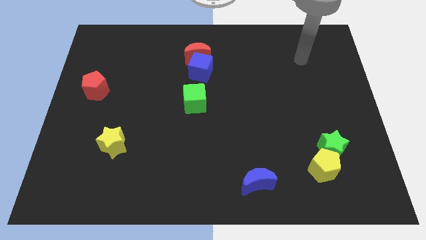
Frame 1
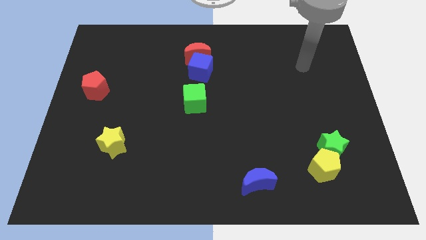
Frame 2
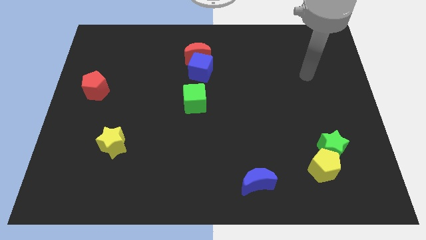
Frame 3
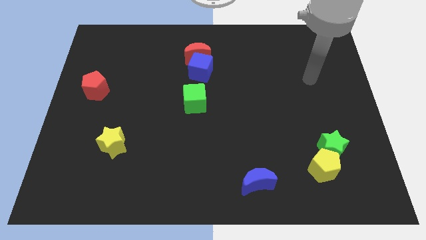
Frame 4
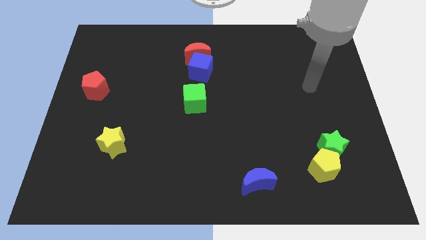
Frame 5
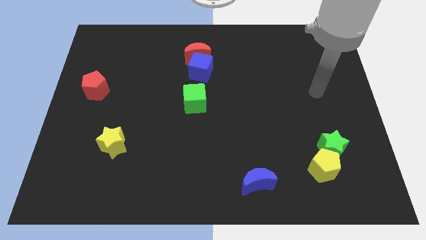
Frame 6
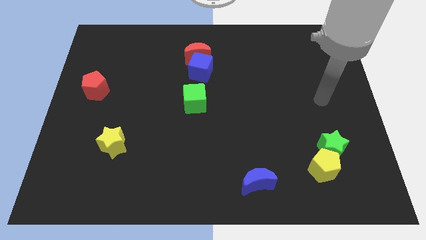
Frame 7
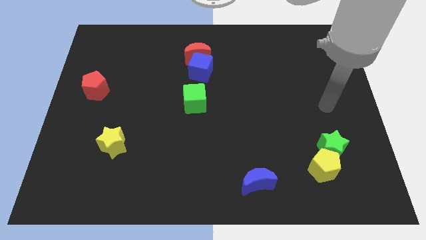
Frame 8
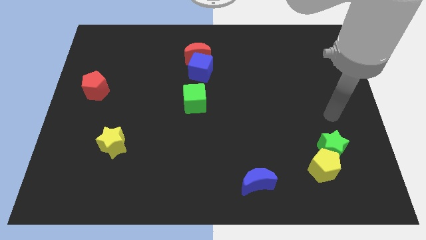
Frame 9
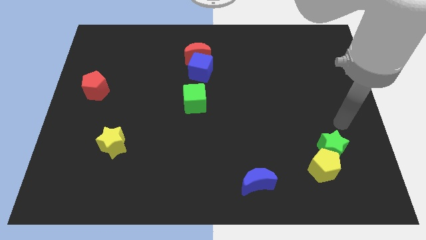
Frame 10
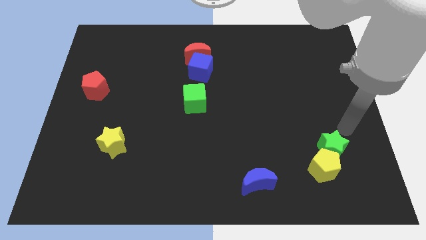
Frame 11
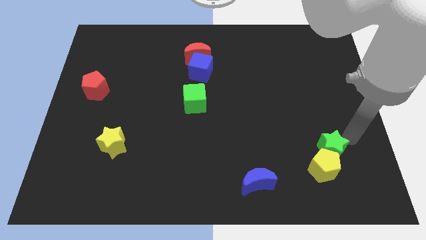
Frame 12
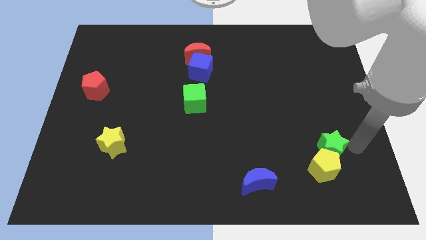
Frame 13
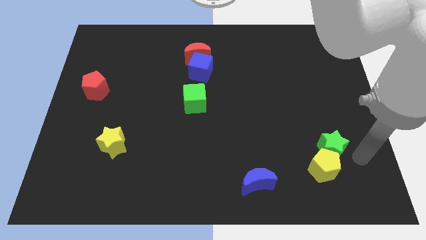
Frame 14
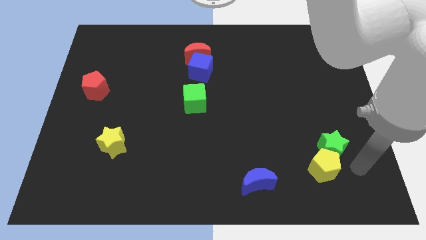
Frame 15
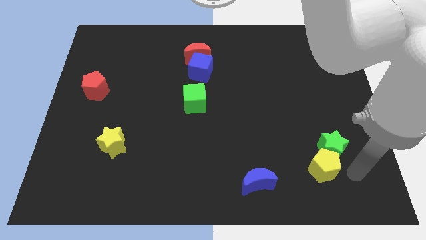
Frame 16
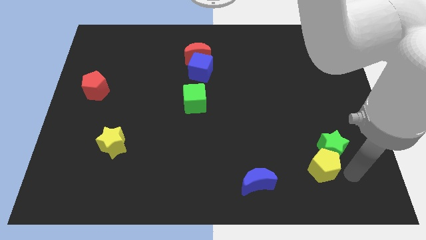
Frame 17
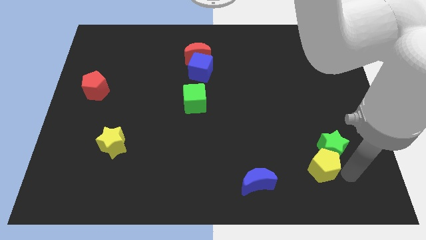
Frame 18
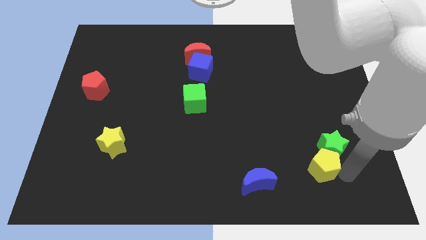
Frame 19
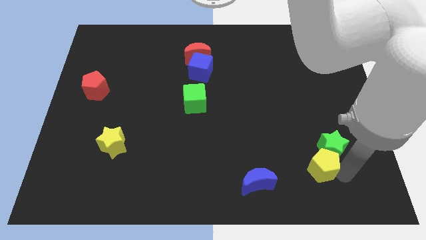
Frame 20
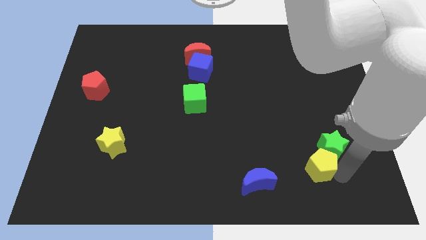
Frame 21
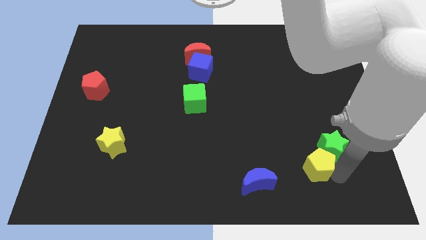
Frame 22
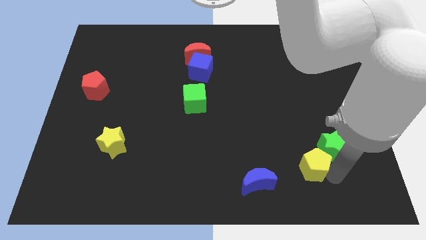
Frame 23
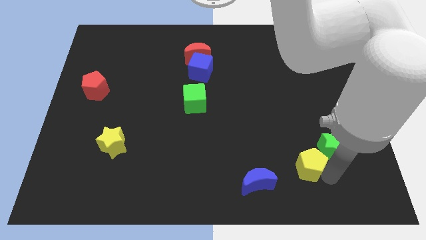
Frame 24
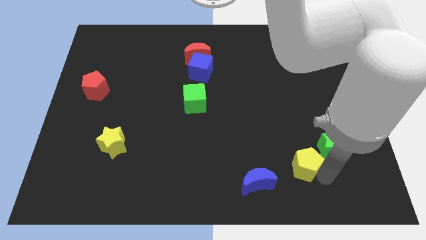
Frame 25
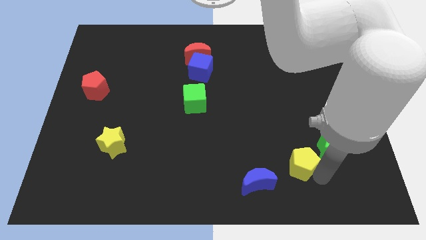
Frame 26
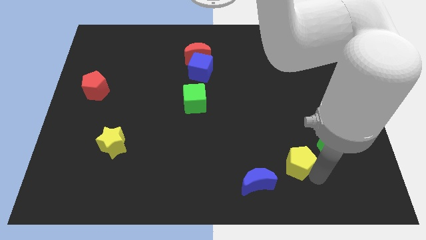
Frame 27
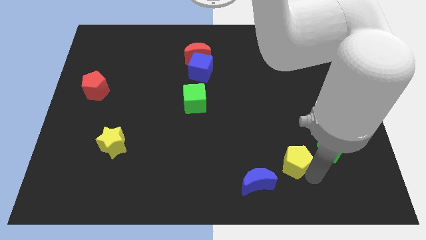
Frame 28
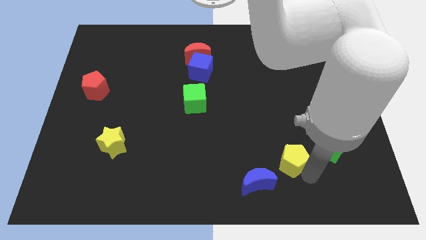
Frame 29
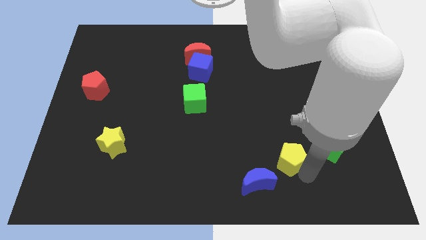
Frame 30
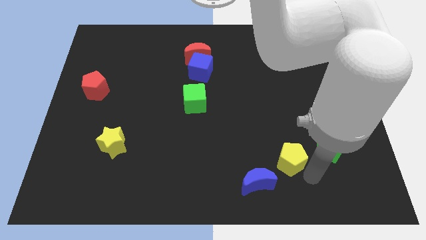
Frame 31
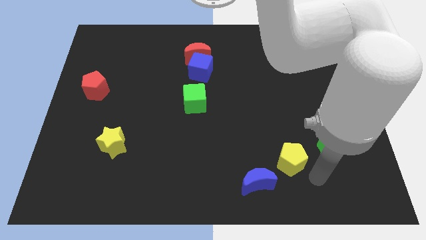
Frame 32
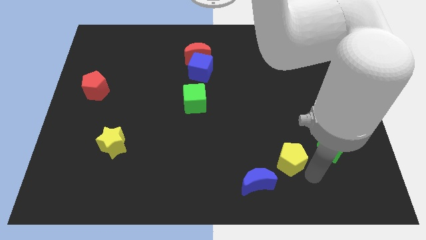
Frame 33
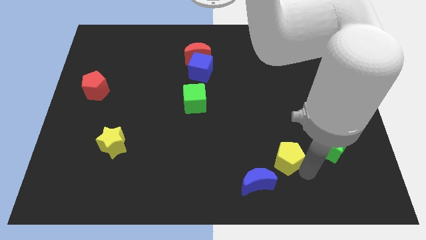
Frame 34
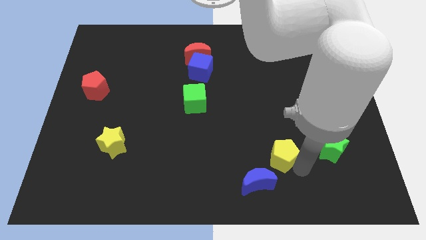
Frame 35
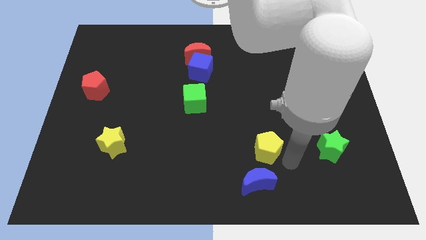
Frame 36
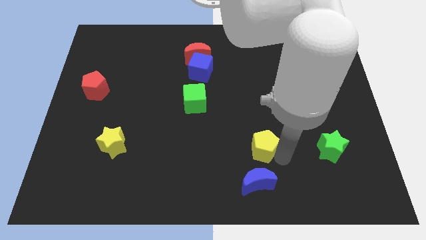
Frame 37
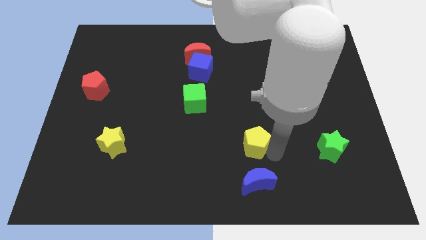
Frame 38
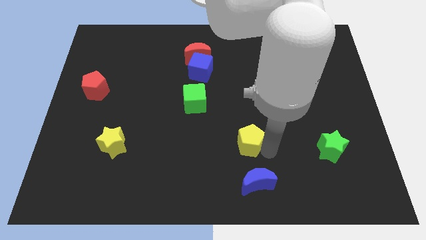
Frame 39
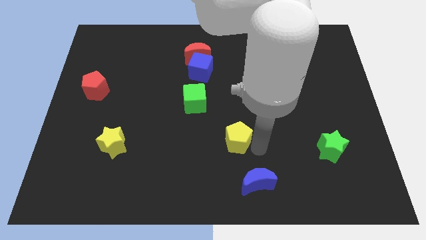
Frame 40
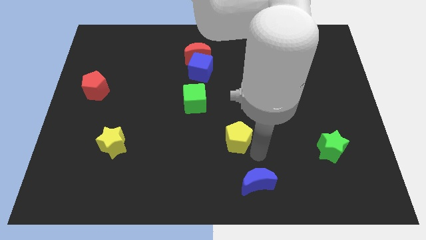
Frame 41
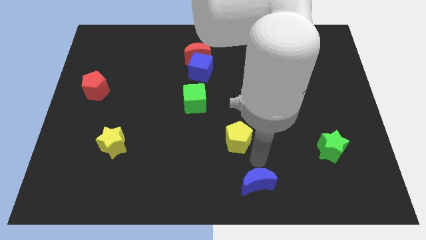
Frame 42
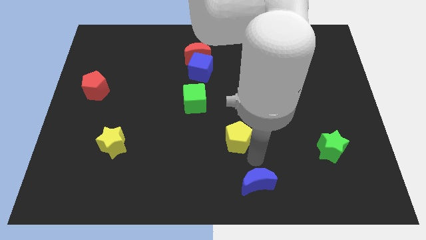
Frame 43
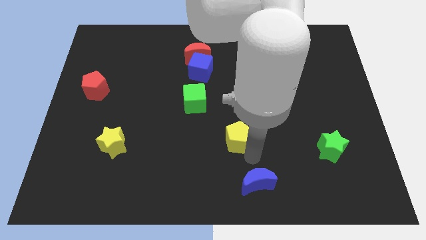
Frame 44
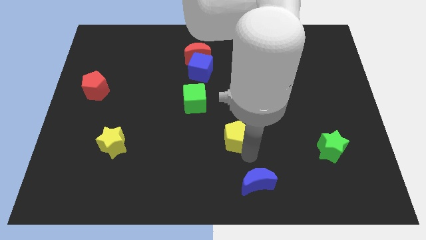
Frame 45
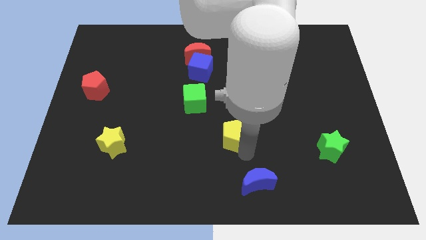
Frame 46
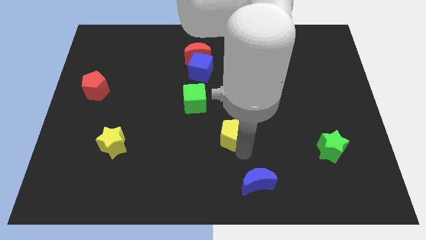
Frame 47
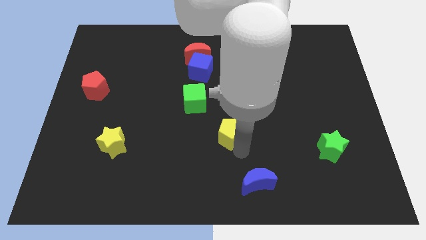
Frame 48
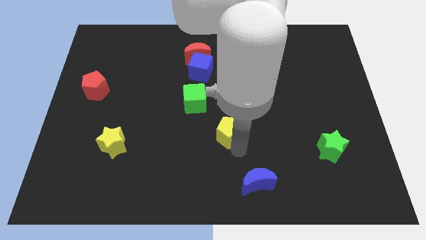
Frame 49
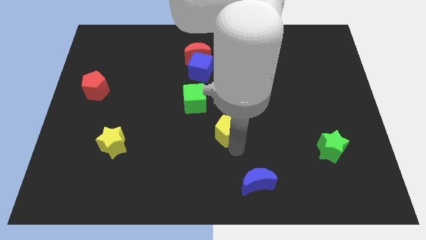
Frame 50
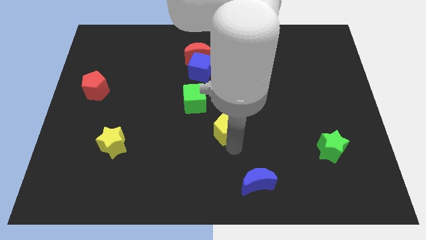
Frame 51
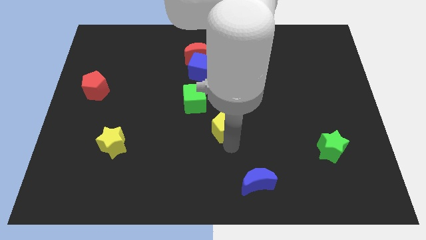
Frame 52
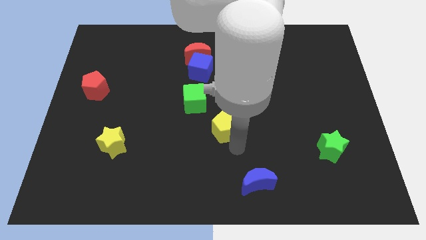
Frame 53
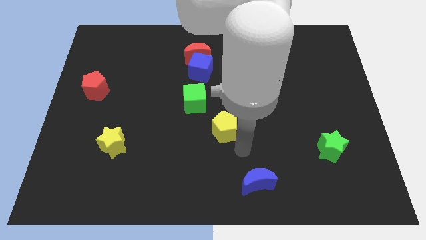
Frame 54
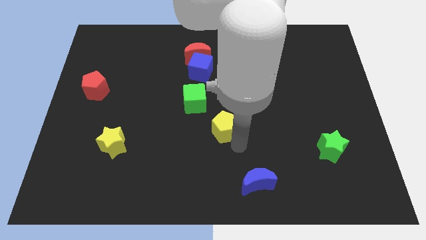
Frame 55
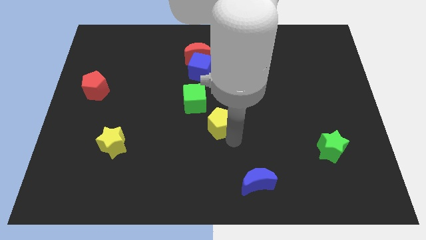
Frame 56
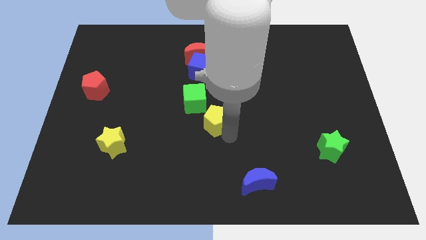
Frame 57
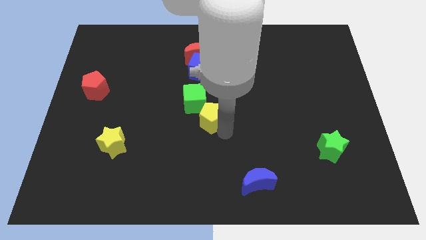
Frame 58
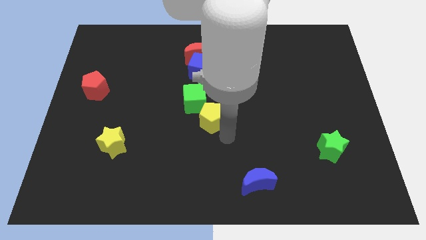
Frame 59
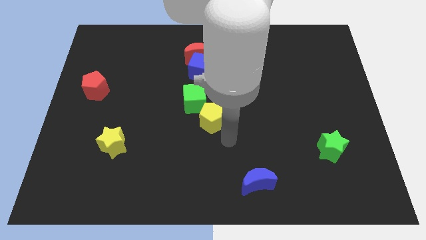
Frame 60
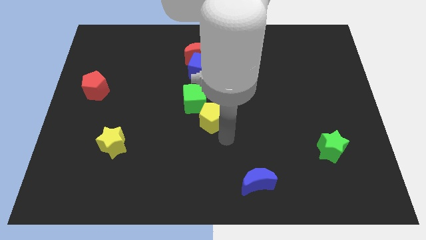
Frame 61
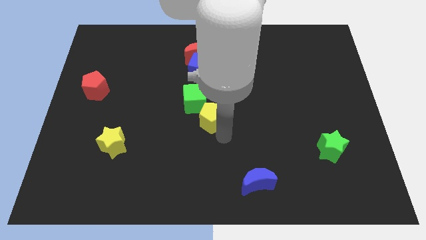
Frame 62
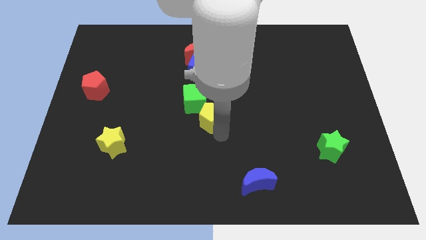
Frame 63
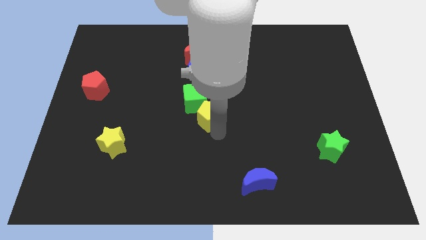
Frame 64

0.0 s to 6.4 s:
push the yellow pentagon close to the green cube

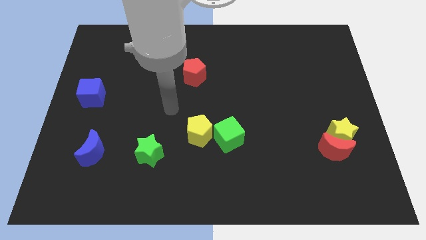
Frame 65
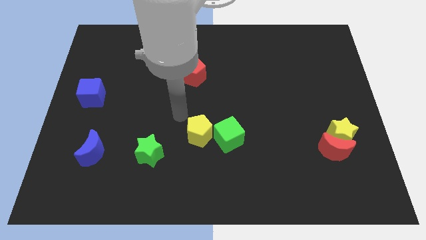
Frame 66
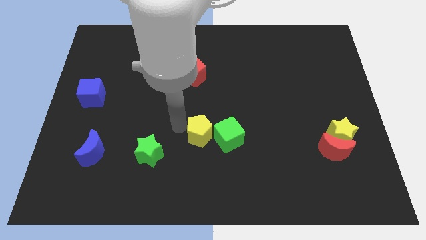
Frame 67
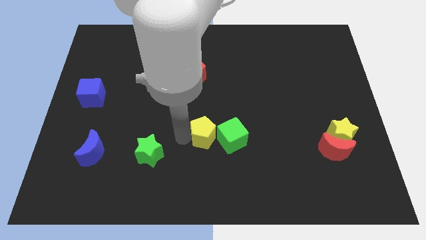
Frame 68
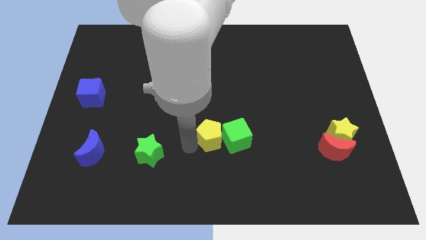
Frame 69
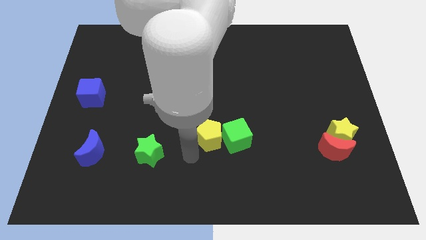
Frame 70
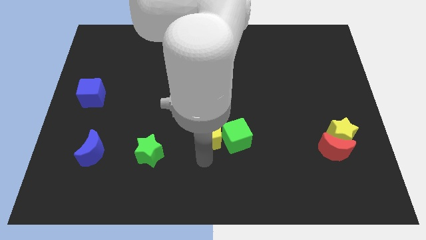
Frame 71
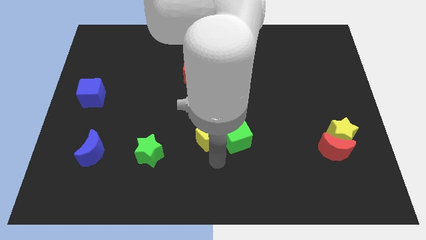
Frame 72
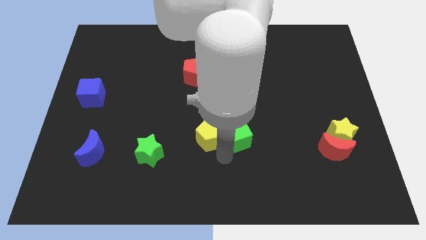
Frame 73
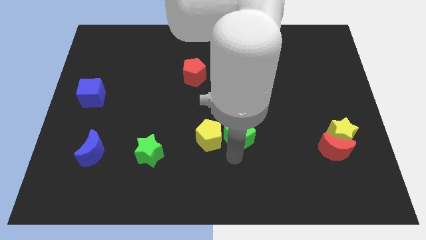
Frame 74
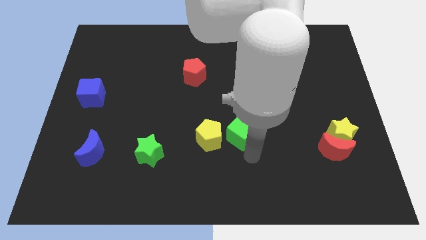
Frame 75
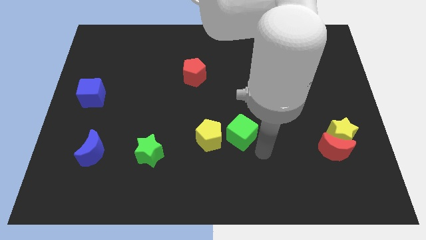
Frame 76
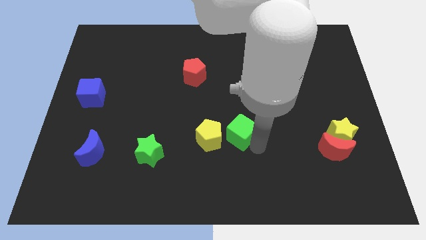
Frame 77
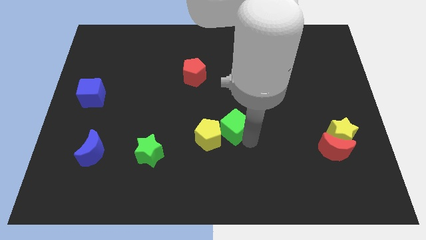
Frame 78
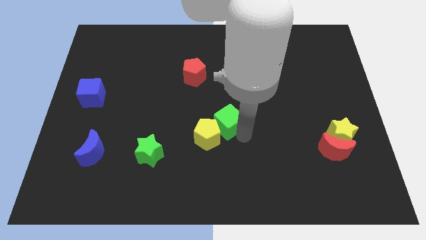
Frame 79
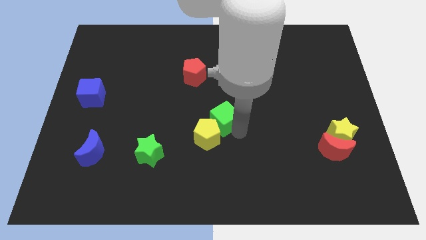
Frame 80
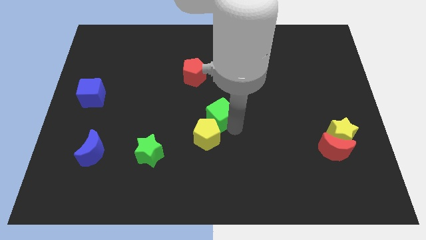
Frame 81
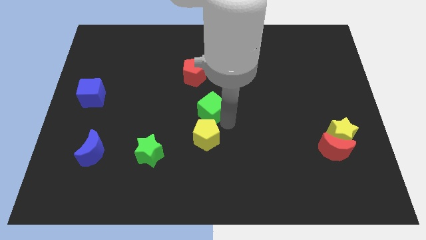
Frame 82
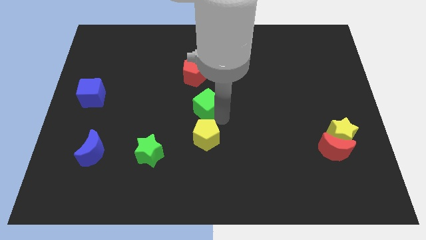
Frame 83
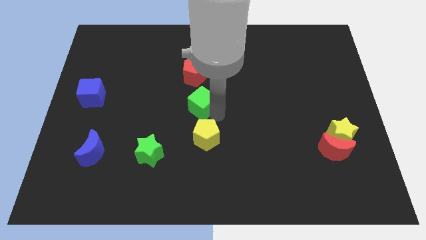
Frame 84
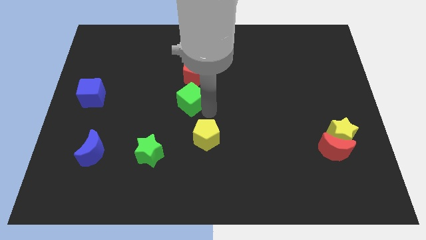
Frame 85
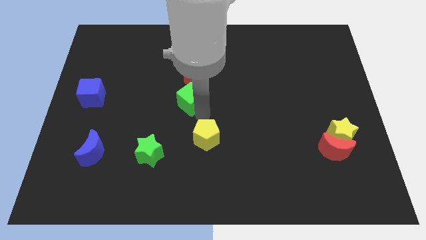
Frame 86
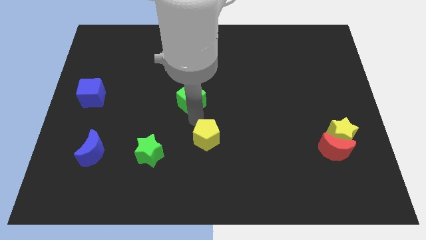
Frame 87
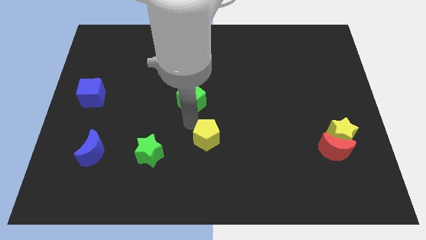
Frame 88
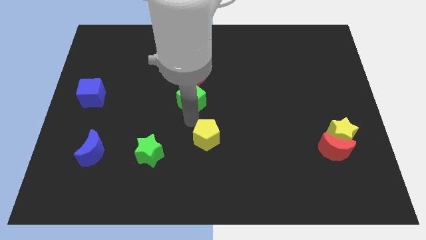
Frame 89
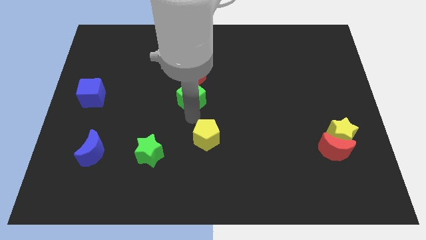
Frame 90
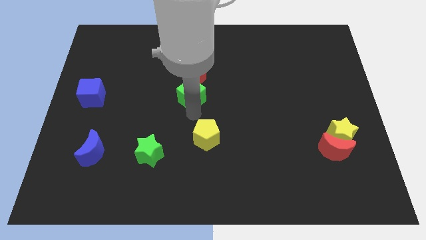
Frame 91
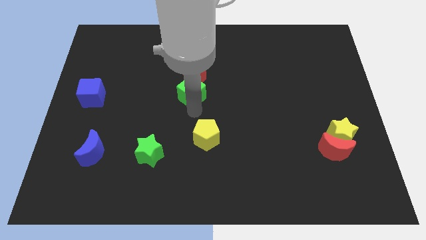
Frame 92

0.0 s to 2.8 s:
put the green cube next to the red pentagon
